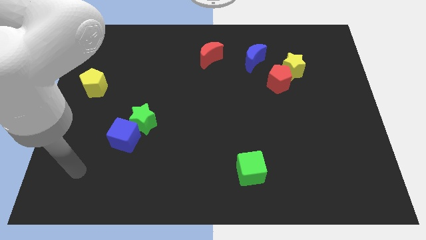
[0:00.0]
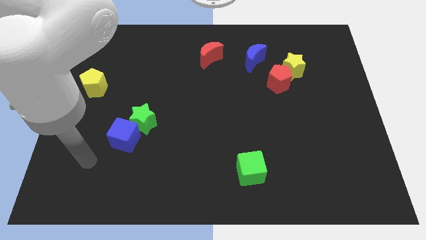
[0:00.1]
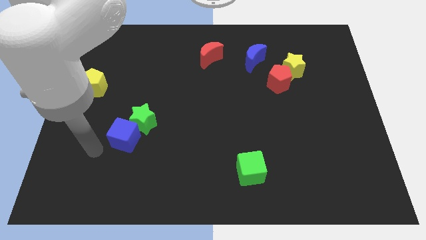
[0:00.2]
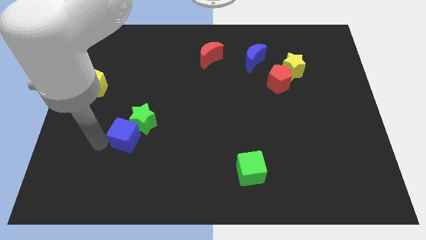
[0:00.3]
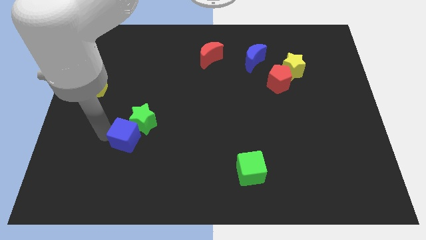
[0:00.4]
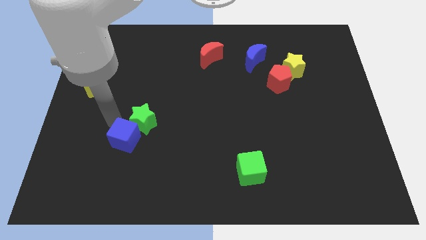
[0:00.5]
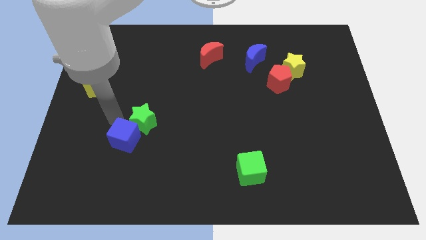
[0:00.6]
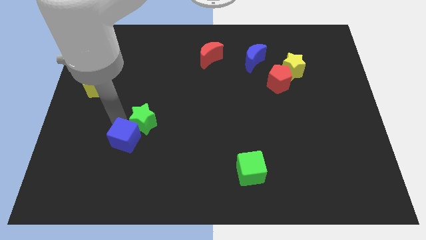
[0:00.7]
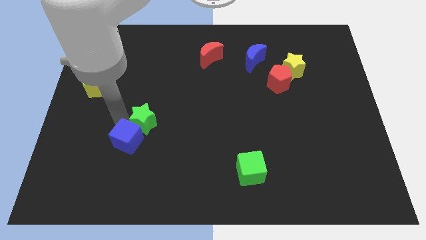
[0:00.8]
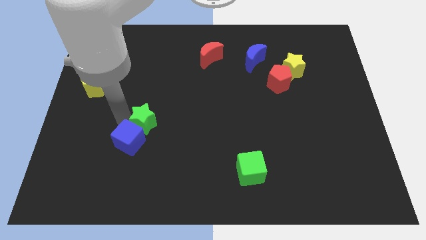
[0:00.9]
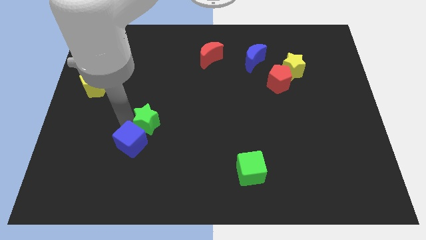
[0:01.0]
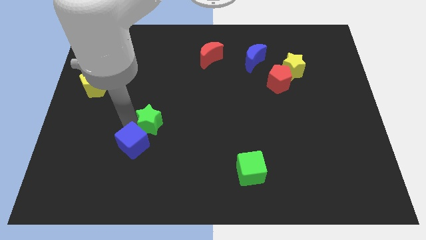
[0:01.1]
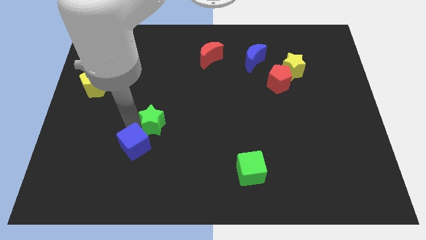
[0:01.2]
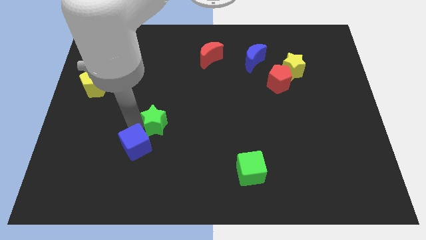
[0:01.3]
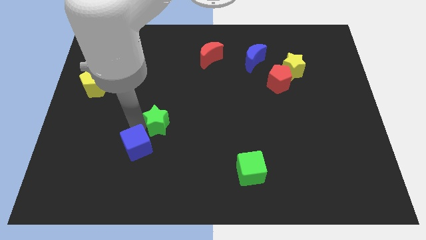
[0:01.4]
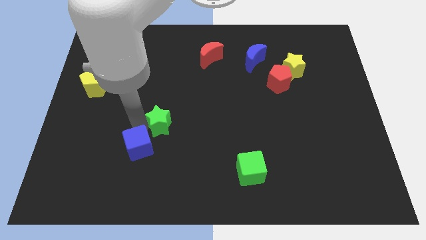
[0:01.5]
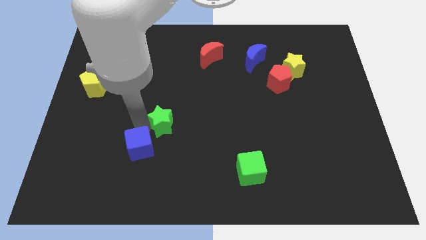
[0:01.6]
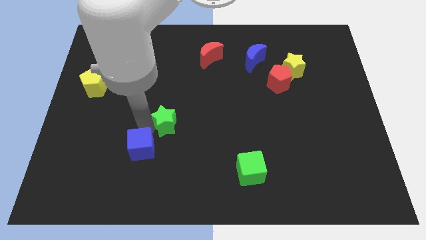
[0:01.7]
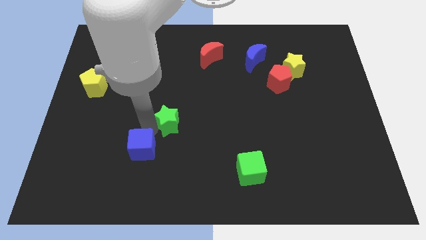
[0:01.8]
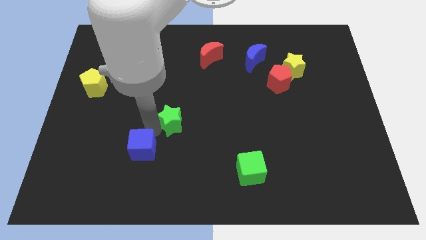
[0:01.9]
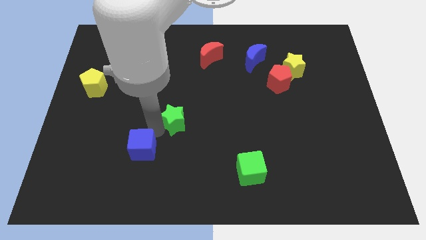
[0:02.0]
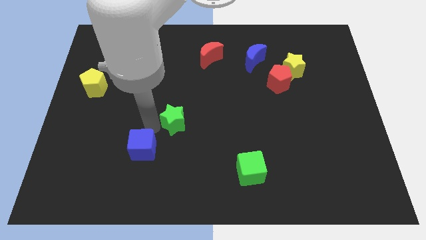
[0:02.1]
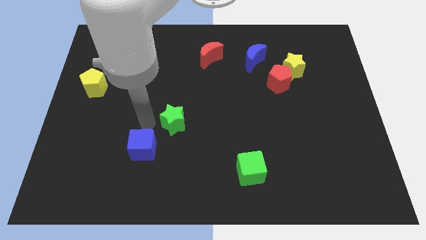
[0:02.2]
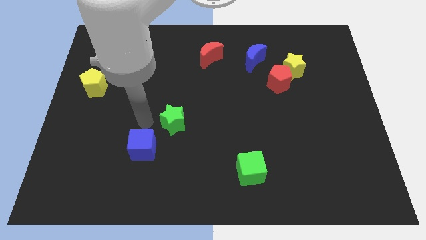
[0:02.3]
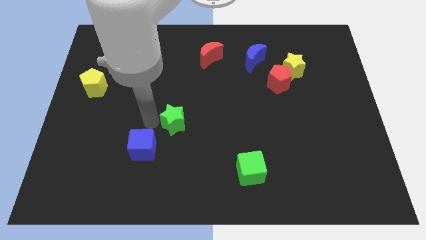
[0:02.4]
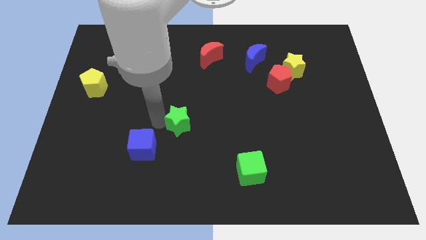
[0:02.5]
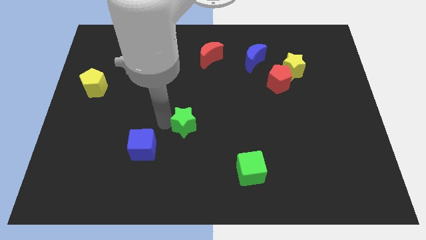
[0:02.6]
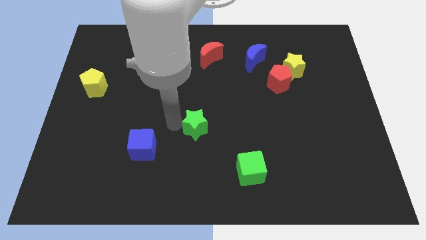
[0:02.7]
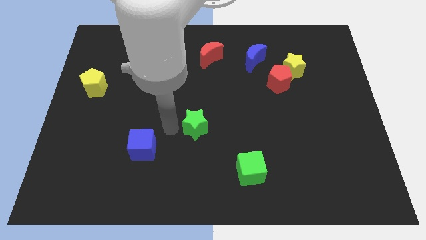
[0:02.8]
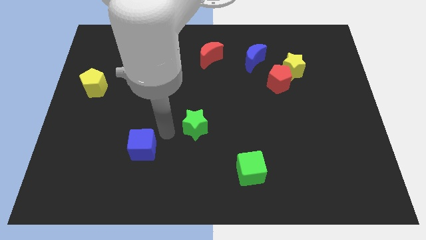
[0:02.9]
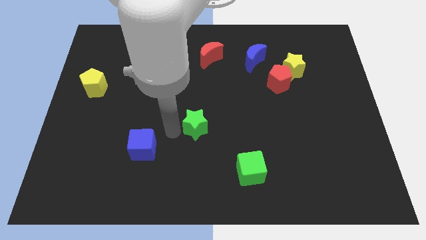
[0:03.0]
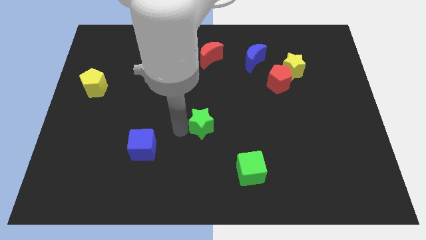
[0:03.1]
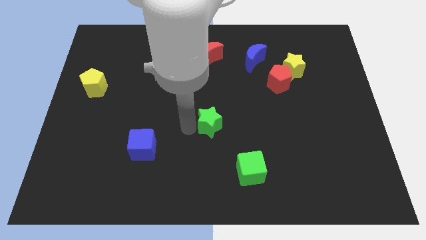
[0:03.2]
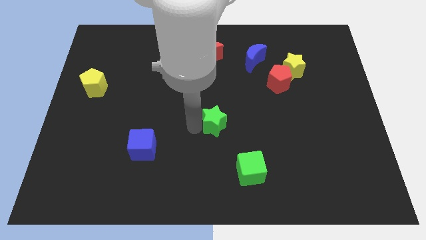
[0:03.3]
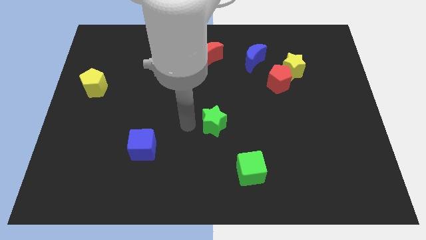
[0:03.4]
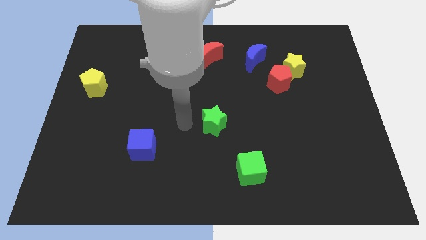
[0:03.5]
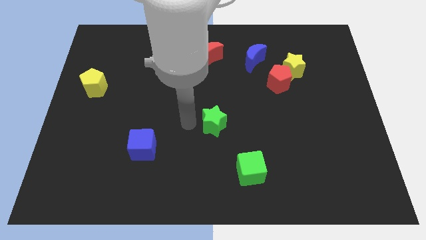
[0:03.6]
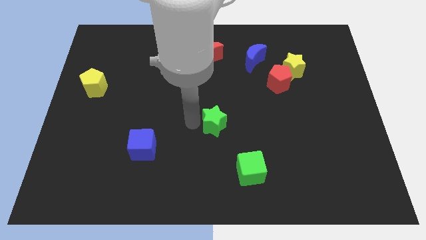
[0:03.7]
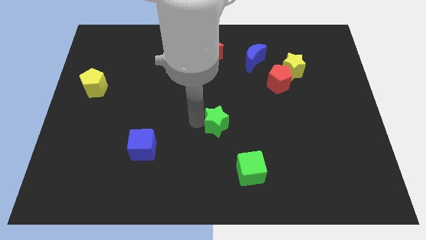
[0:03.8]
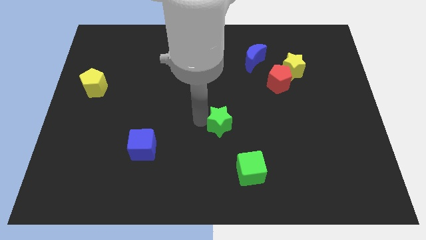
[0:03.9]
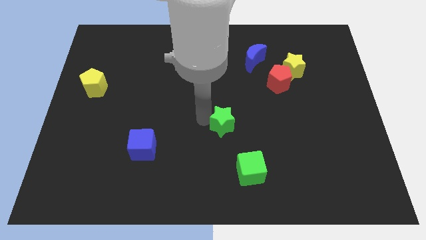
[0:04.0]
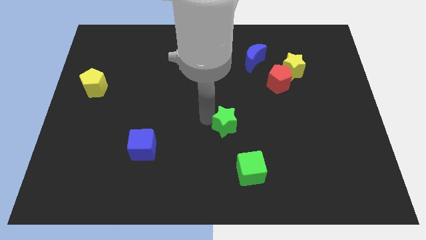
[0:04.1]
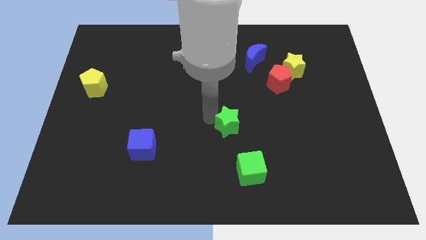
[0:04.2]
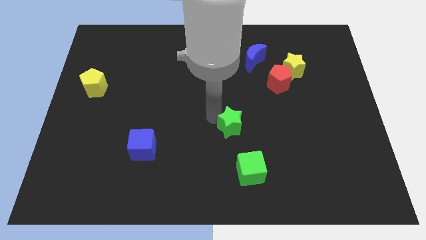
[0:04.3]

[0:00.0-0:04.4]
push the green star right

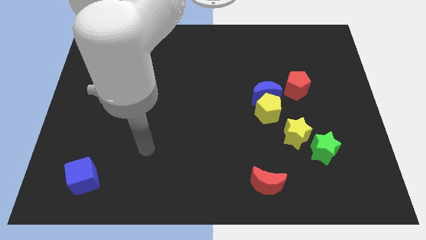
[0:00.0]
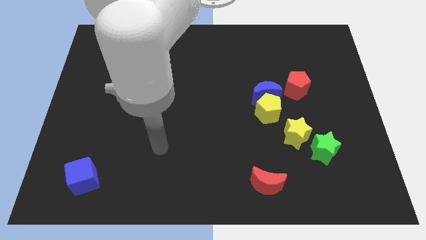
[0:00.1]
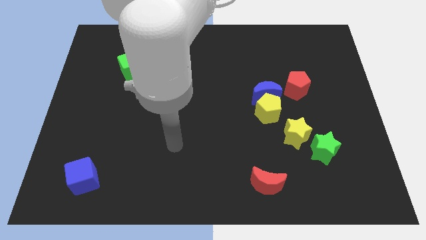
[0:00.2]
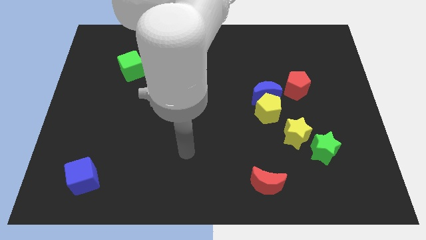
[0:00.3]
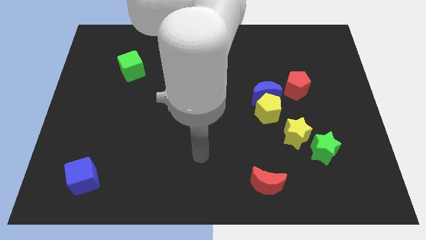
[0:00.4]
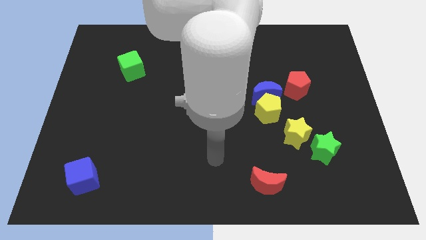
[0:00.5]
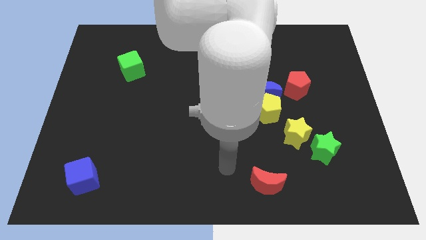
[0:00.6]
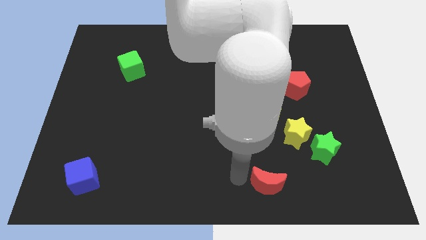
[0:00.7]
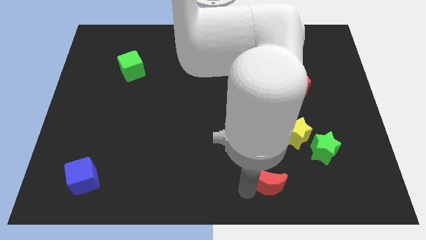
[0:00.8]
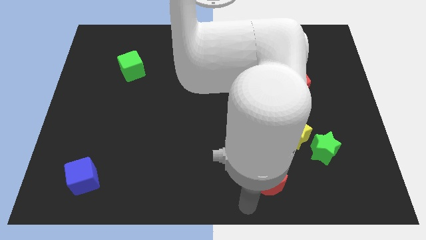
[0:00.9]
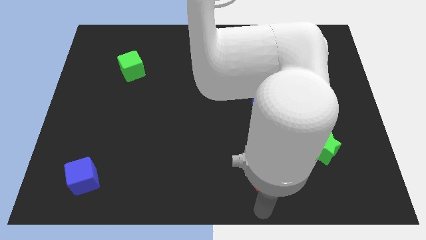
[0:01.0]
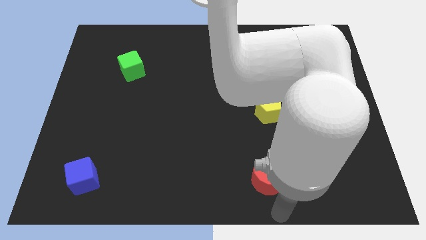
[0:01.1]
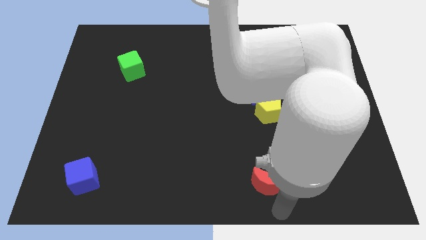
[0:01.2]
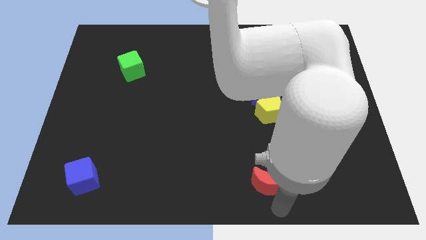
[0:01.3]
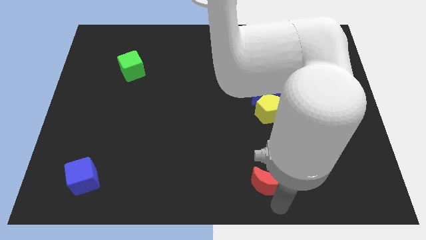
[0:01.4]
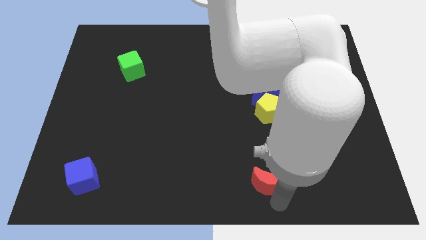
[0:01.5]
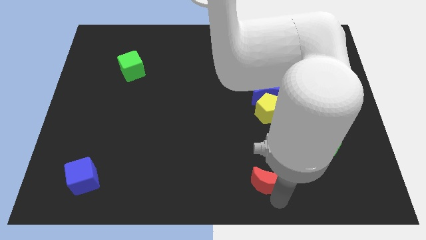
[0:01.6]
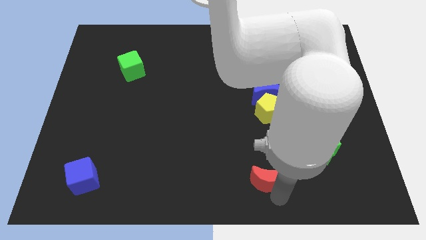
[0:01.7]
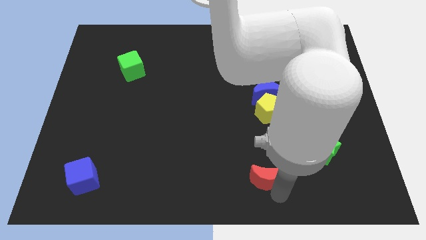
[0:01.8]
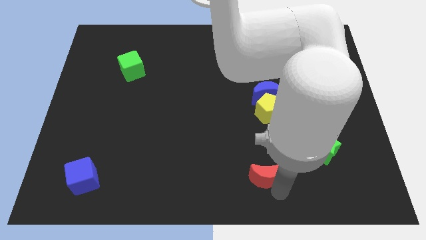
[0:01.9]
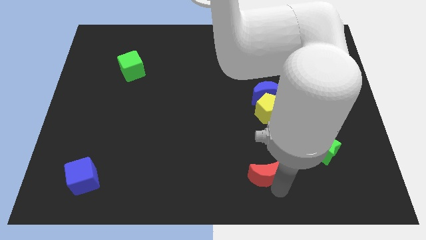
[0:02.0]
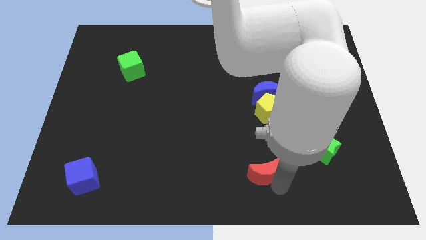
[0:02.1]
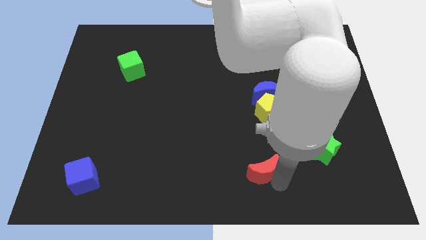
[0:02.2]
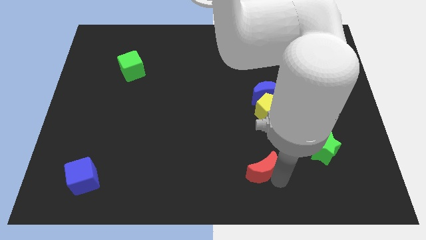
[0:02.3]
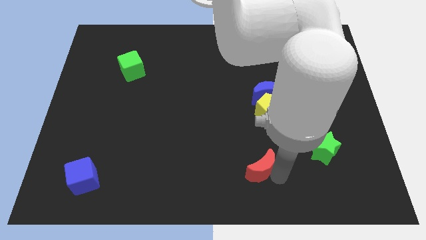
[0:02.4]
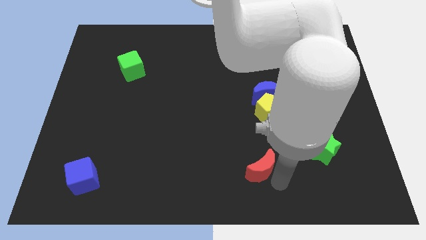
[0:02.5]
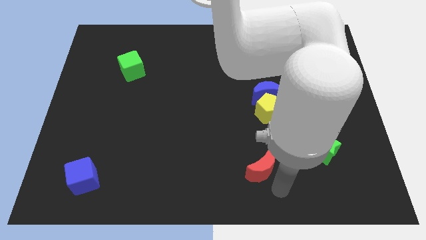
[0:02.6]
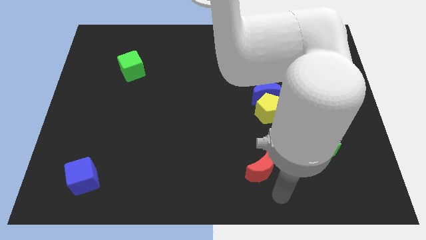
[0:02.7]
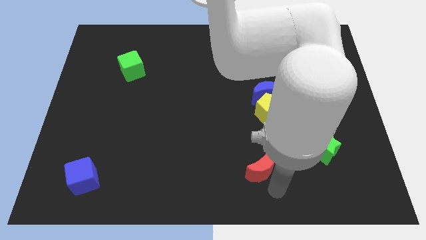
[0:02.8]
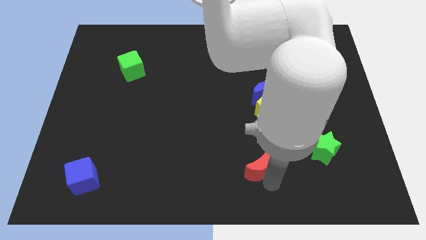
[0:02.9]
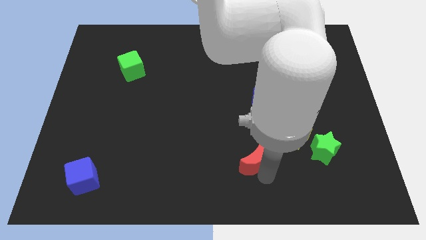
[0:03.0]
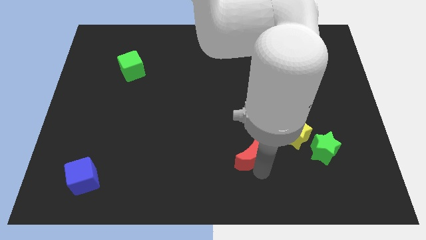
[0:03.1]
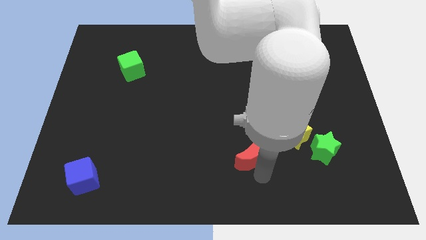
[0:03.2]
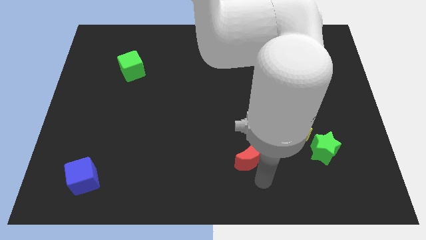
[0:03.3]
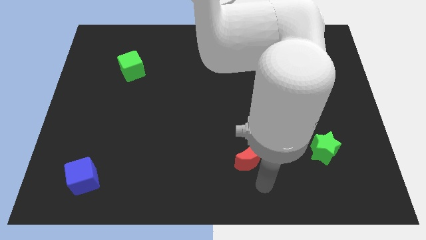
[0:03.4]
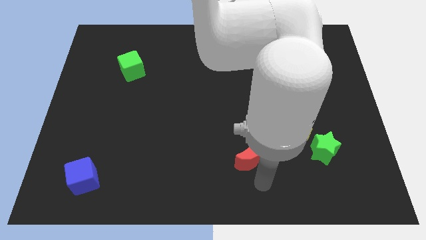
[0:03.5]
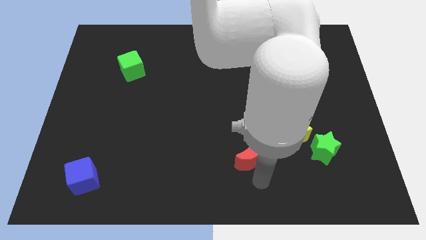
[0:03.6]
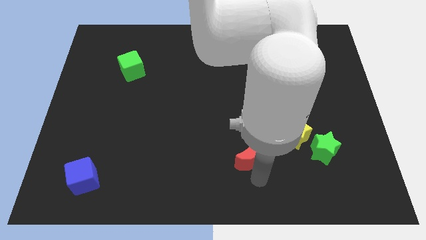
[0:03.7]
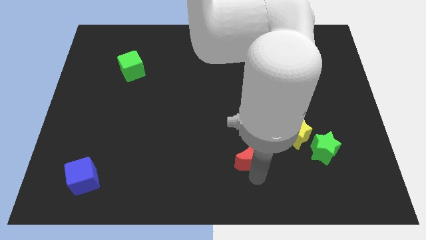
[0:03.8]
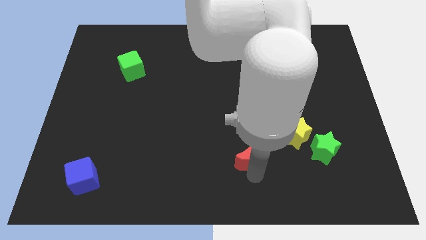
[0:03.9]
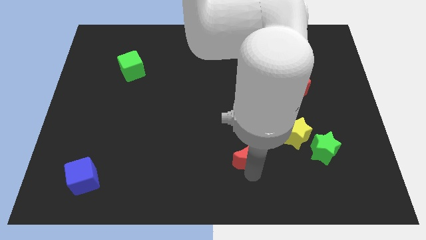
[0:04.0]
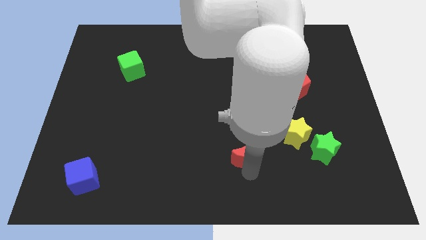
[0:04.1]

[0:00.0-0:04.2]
push the red moon a little upwards and then left
